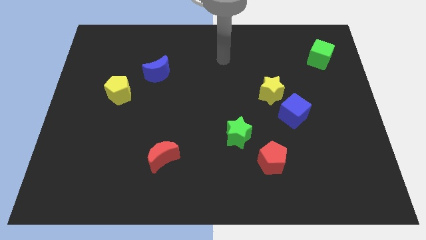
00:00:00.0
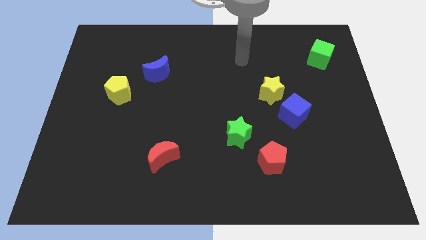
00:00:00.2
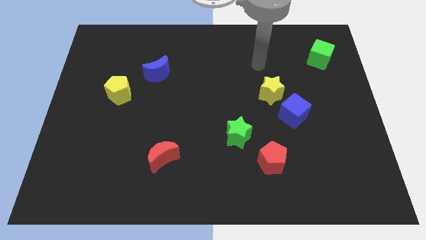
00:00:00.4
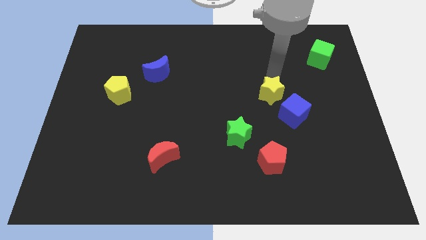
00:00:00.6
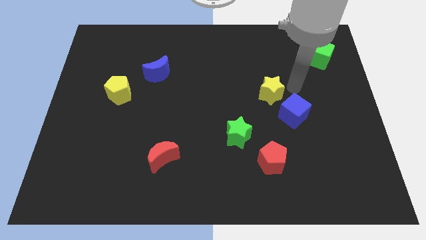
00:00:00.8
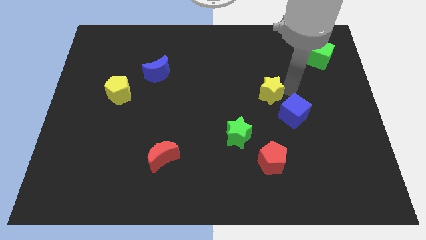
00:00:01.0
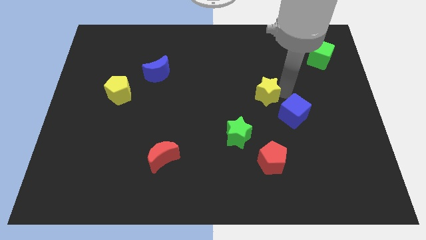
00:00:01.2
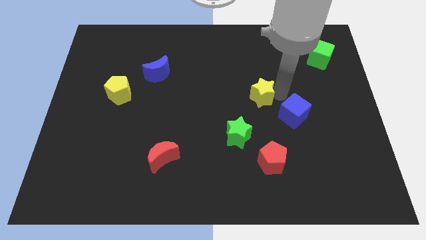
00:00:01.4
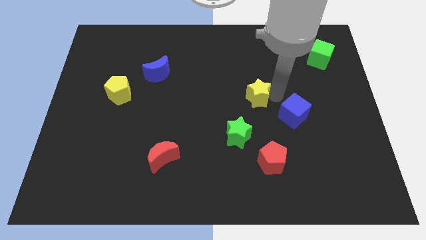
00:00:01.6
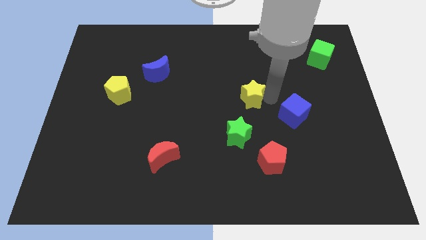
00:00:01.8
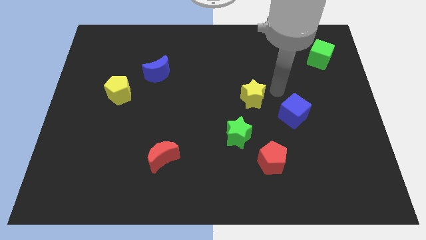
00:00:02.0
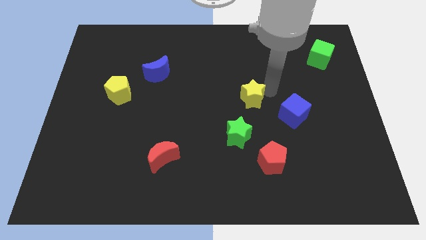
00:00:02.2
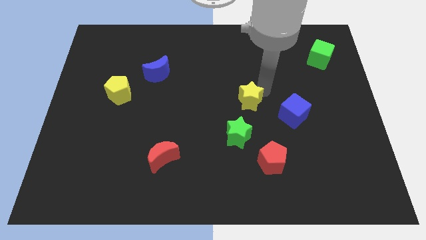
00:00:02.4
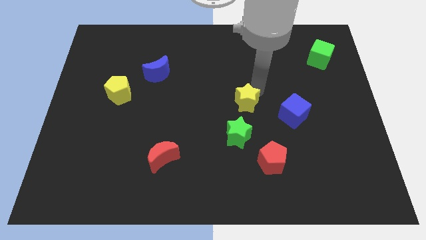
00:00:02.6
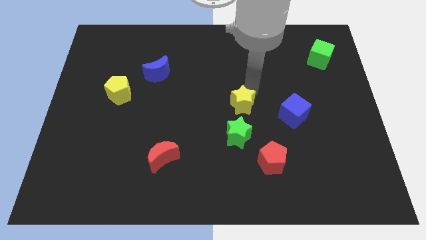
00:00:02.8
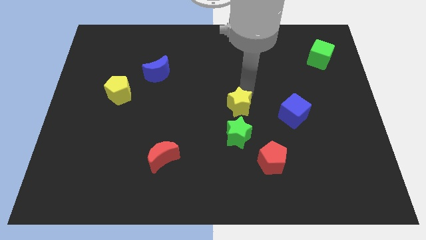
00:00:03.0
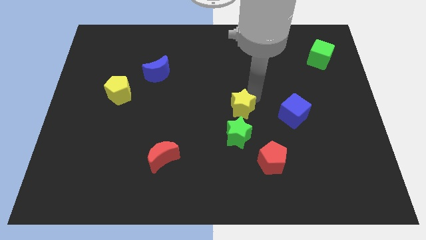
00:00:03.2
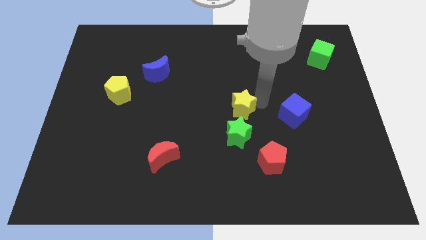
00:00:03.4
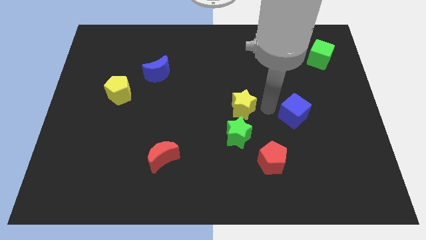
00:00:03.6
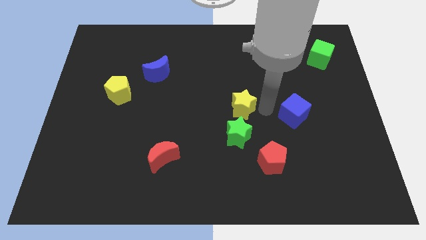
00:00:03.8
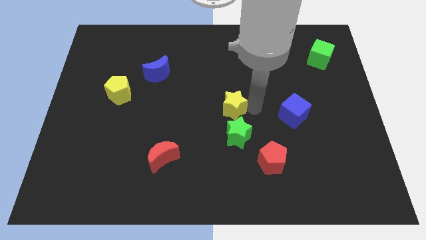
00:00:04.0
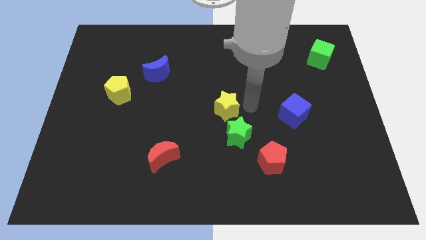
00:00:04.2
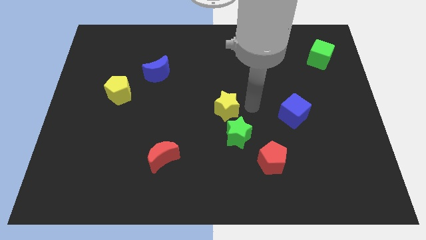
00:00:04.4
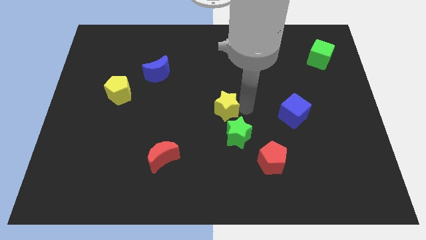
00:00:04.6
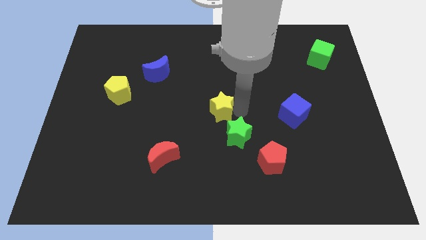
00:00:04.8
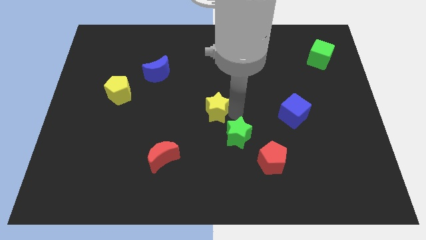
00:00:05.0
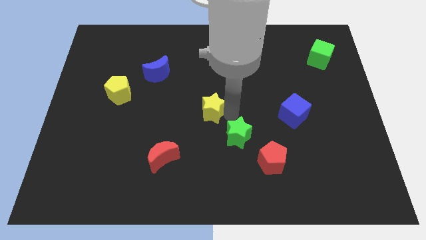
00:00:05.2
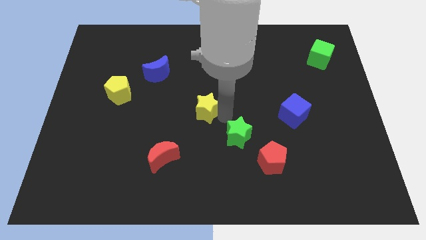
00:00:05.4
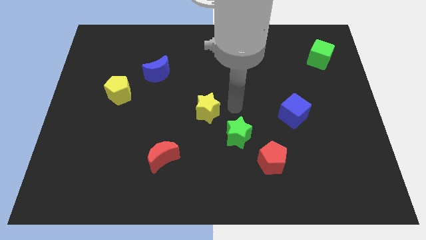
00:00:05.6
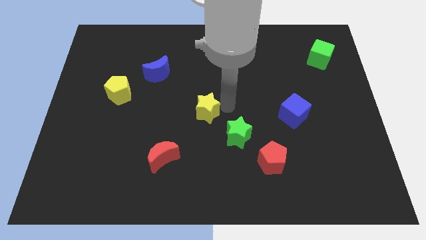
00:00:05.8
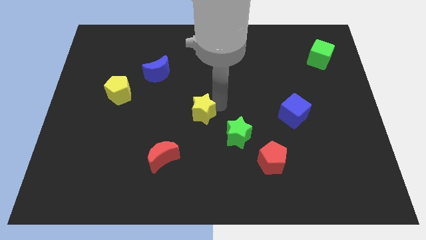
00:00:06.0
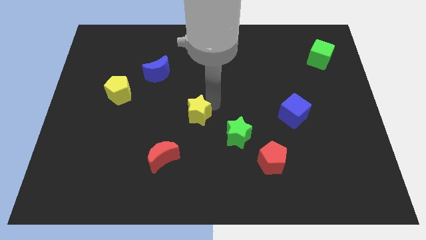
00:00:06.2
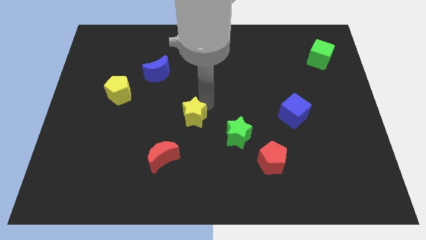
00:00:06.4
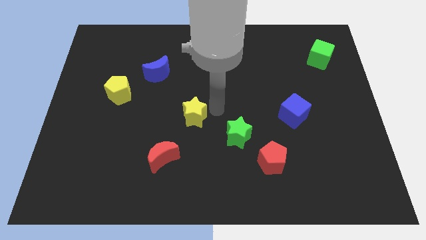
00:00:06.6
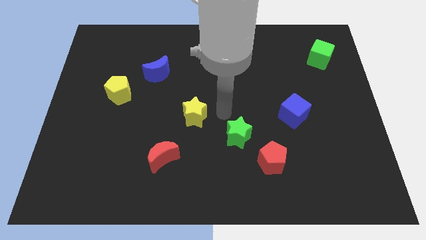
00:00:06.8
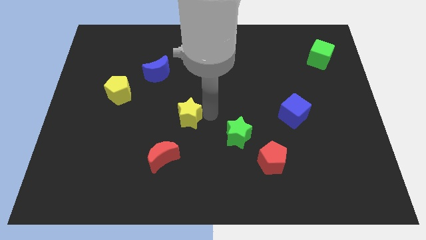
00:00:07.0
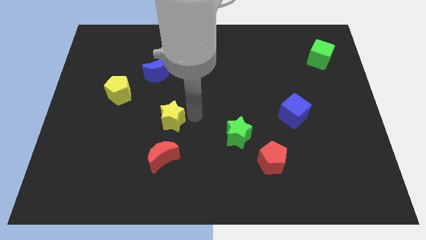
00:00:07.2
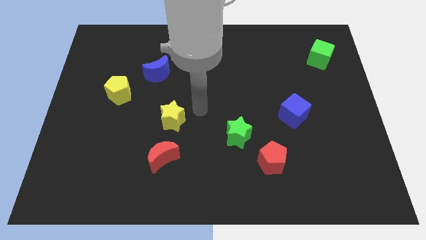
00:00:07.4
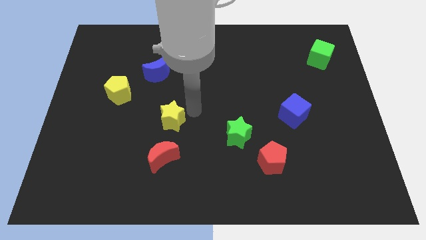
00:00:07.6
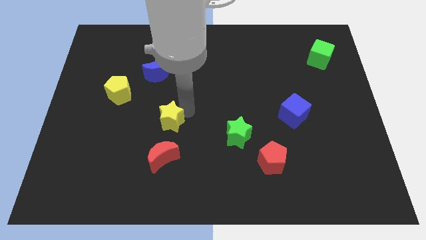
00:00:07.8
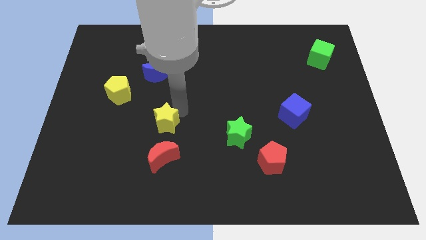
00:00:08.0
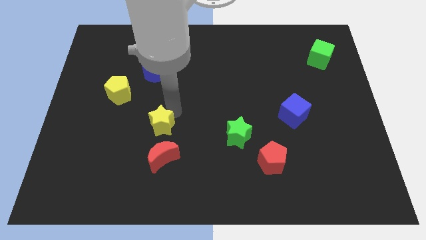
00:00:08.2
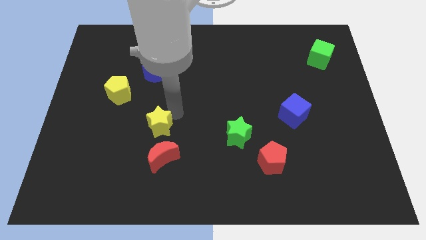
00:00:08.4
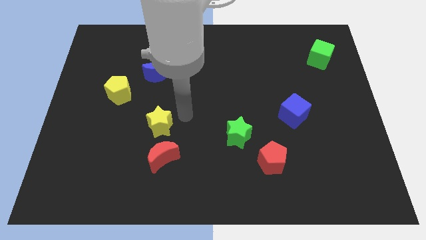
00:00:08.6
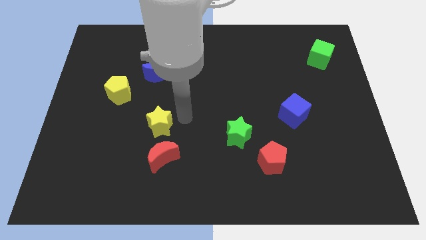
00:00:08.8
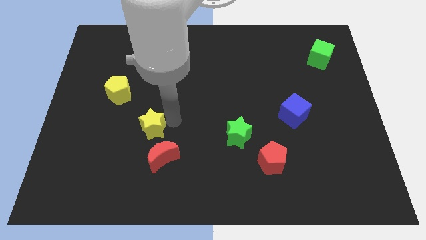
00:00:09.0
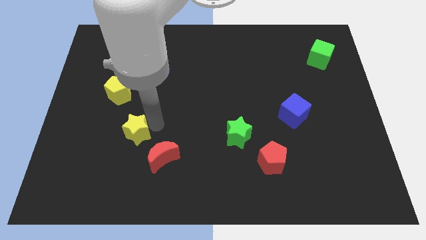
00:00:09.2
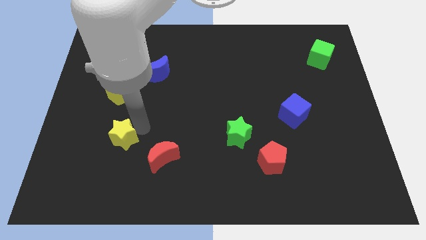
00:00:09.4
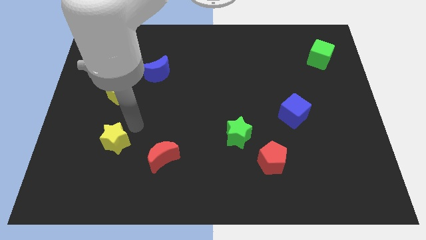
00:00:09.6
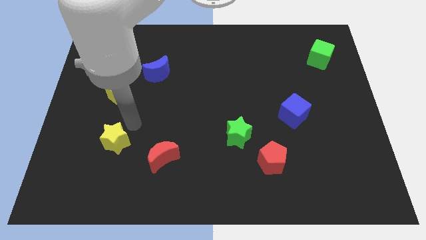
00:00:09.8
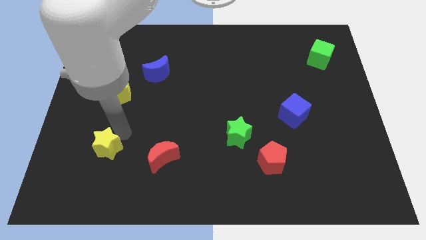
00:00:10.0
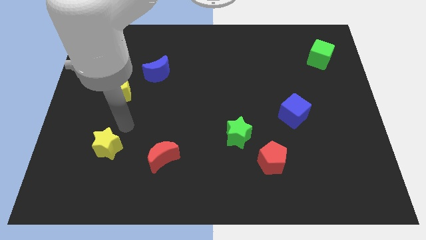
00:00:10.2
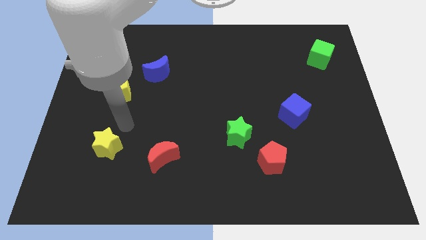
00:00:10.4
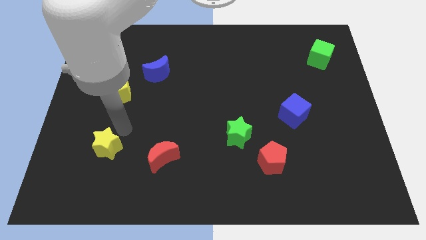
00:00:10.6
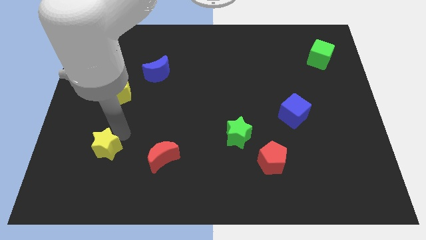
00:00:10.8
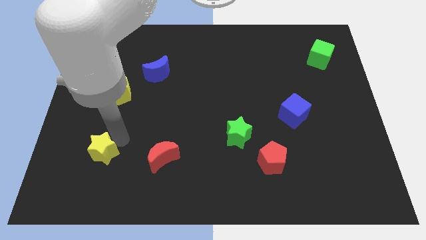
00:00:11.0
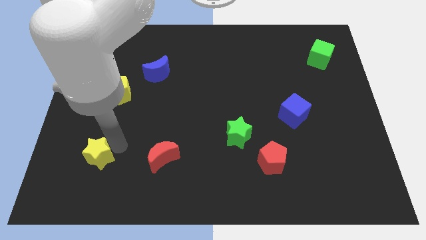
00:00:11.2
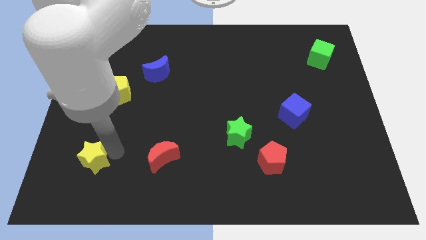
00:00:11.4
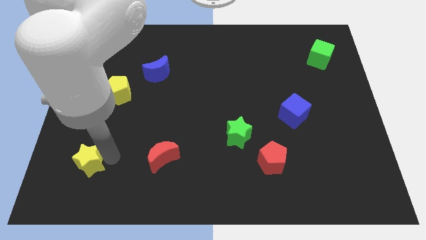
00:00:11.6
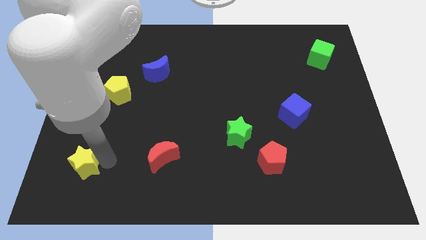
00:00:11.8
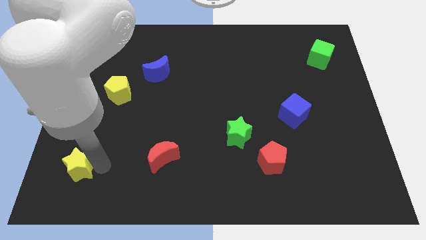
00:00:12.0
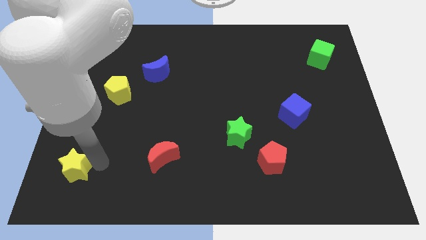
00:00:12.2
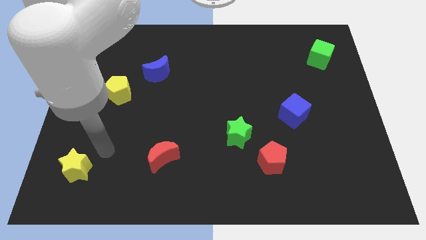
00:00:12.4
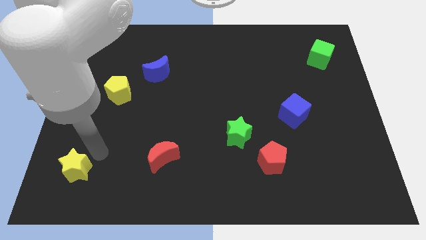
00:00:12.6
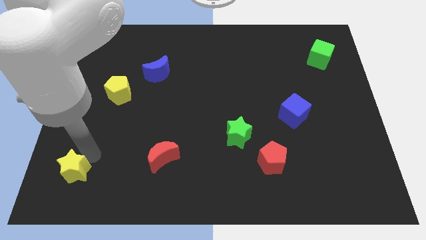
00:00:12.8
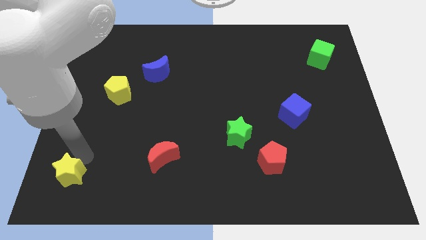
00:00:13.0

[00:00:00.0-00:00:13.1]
push the yellow star to the bottom left of the board
